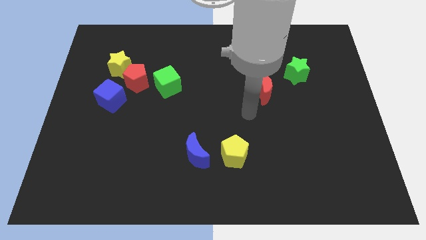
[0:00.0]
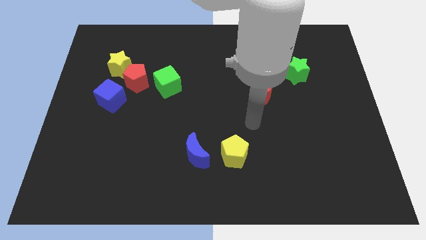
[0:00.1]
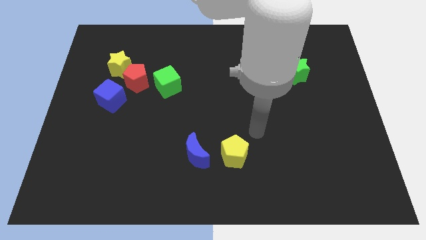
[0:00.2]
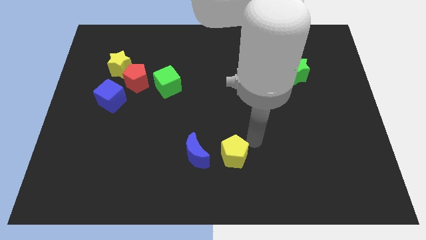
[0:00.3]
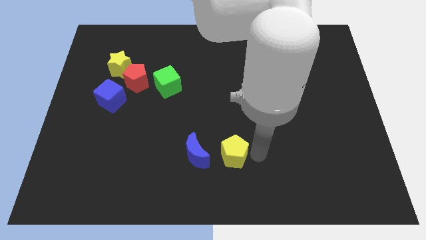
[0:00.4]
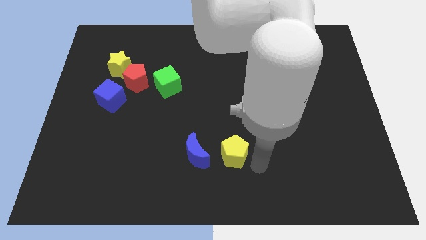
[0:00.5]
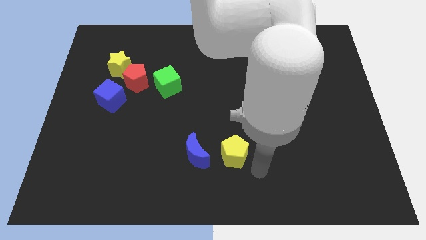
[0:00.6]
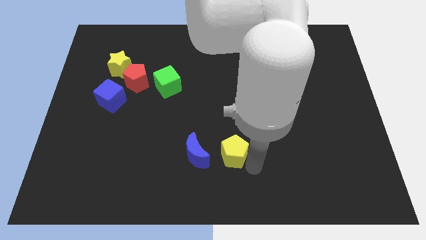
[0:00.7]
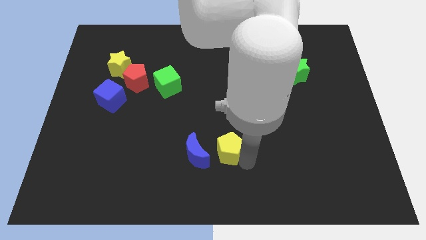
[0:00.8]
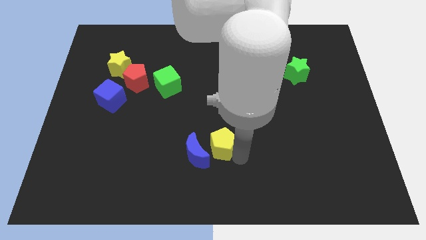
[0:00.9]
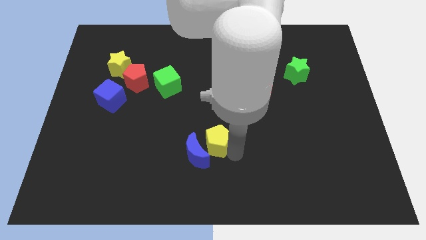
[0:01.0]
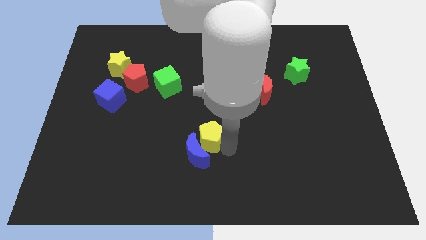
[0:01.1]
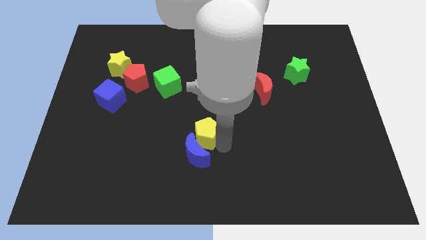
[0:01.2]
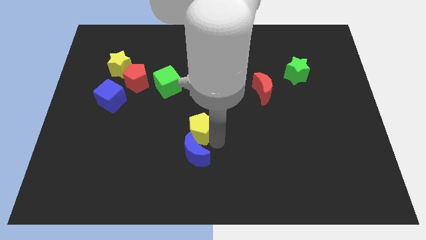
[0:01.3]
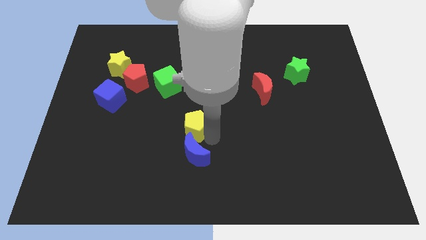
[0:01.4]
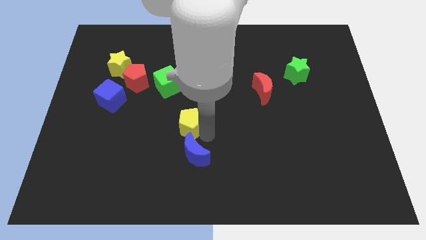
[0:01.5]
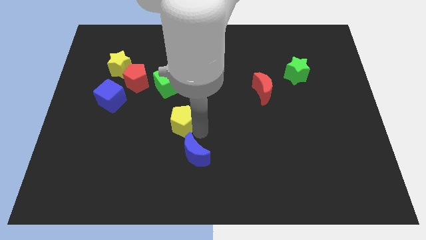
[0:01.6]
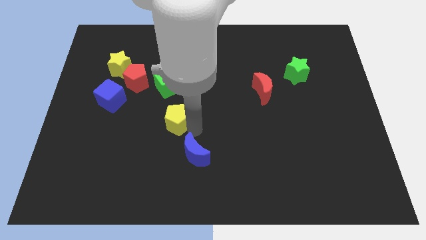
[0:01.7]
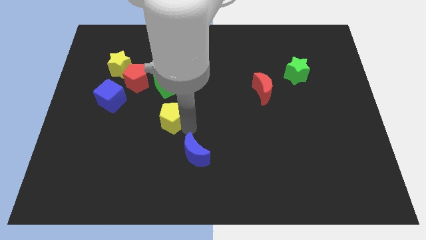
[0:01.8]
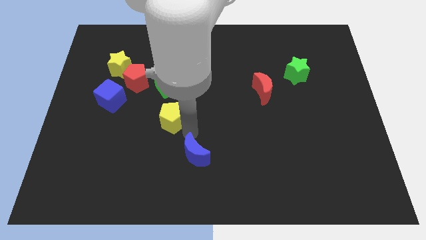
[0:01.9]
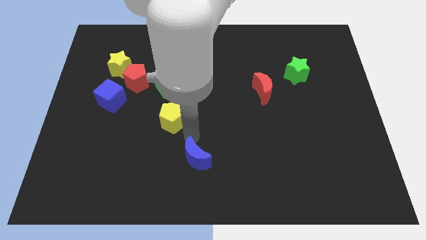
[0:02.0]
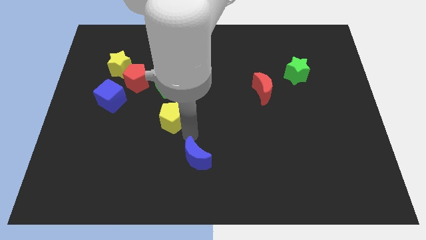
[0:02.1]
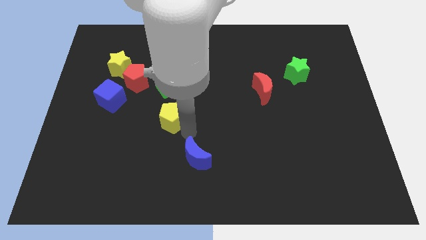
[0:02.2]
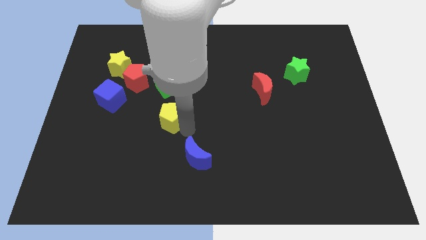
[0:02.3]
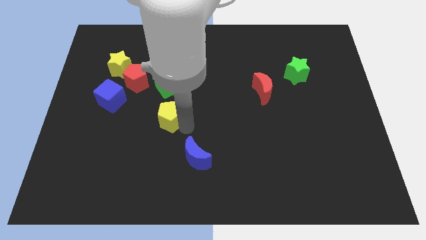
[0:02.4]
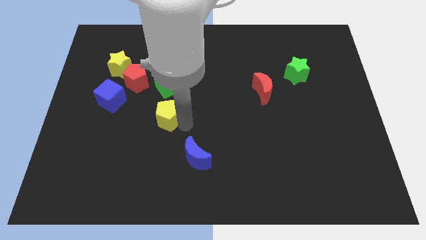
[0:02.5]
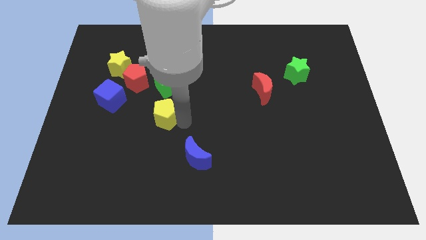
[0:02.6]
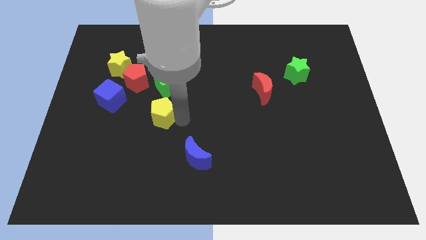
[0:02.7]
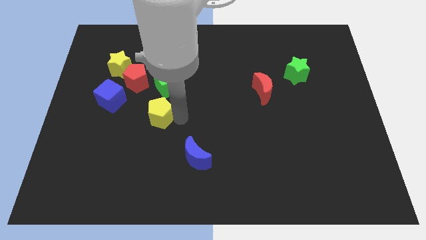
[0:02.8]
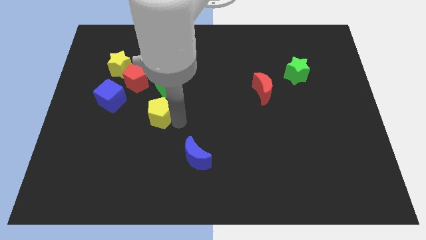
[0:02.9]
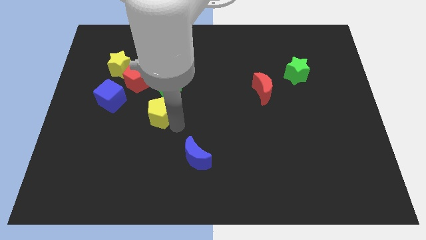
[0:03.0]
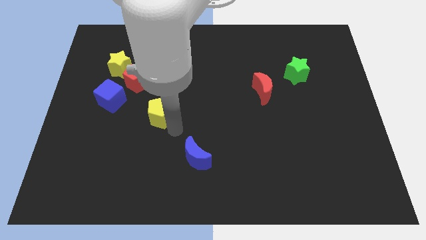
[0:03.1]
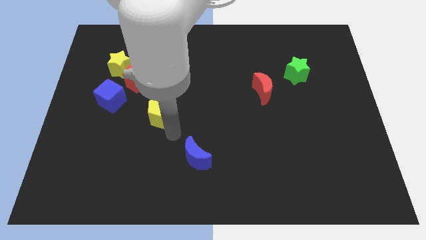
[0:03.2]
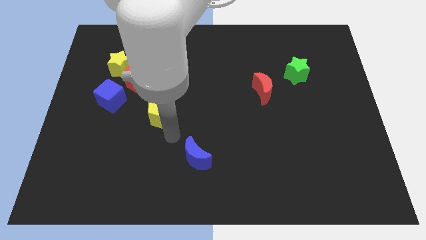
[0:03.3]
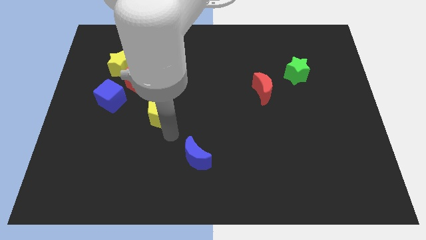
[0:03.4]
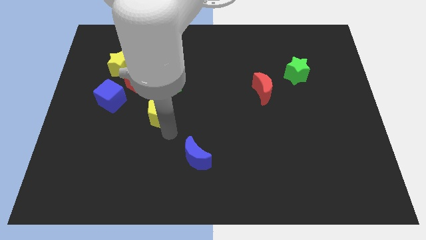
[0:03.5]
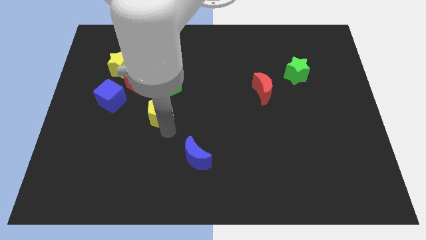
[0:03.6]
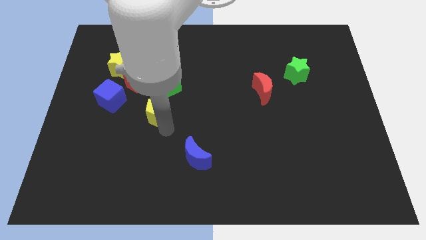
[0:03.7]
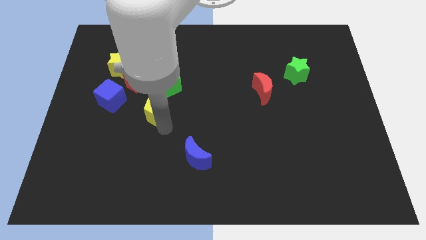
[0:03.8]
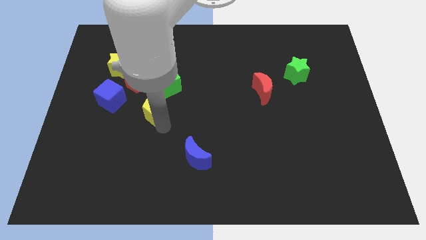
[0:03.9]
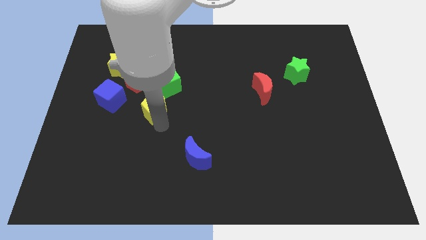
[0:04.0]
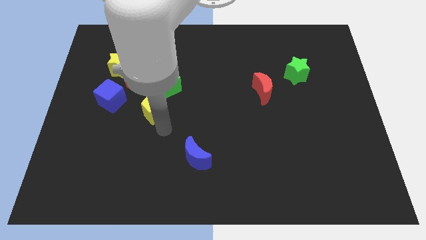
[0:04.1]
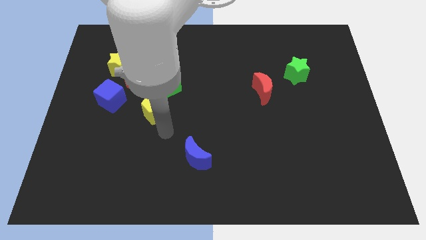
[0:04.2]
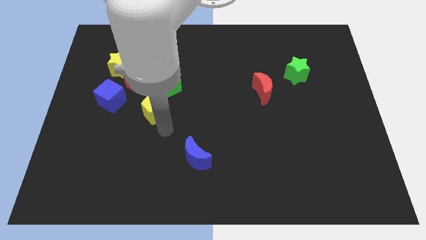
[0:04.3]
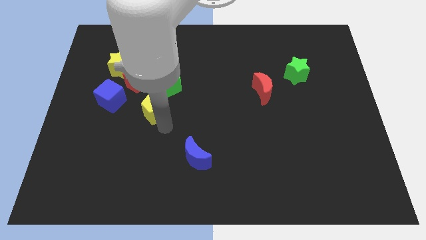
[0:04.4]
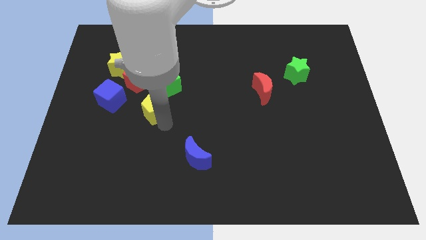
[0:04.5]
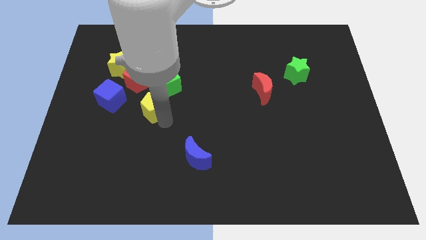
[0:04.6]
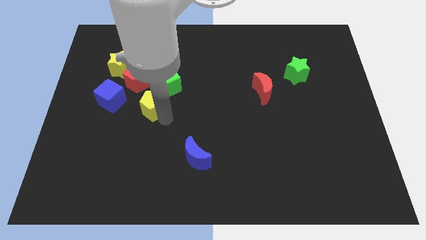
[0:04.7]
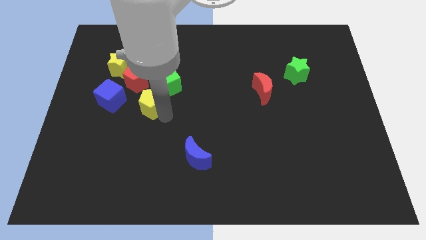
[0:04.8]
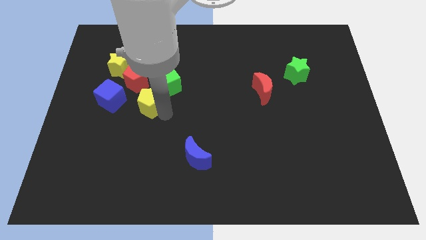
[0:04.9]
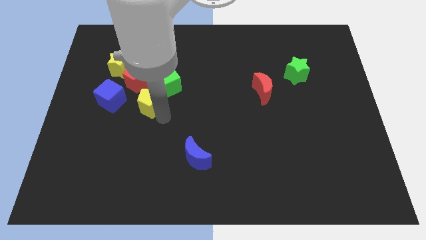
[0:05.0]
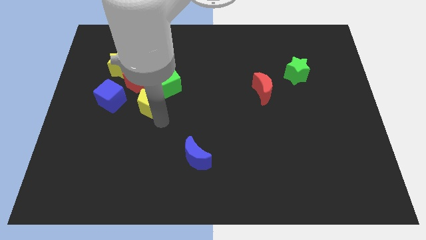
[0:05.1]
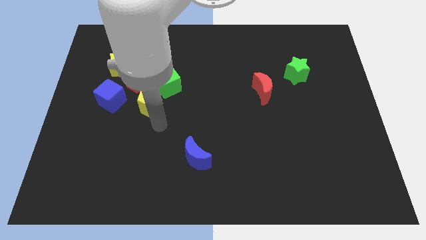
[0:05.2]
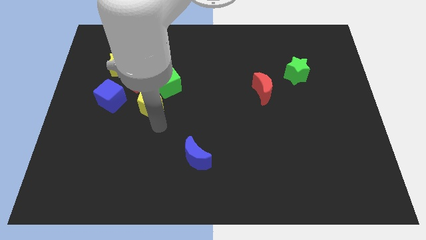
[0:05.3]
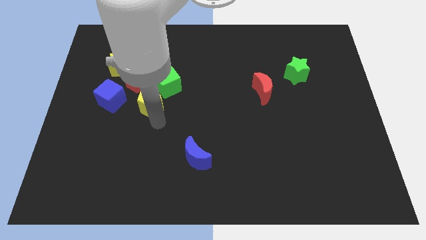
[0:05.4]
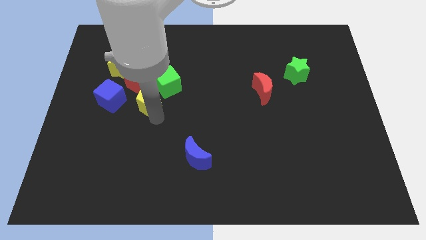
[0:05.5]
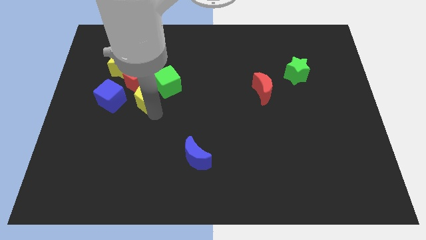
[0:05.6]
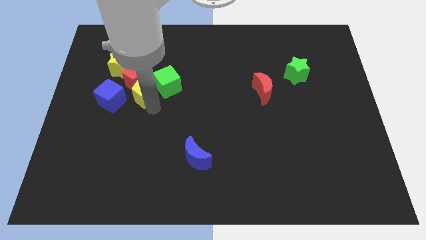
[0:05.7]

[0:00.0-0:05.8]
push the yellow pentagon diagonally down and to the right of the yellow star

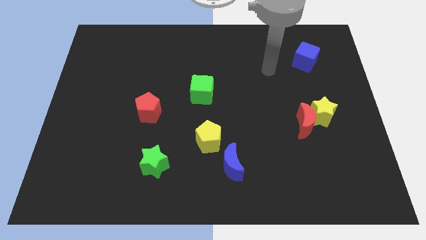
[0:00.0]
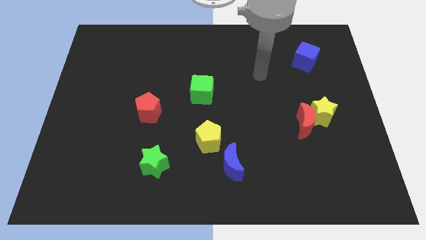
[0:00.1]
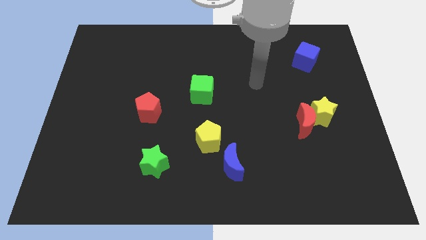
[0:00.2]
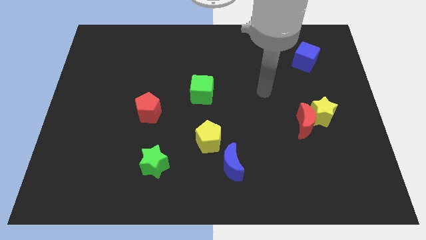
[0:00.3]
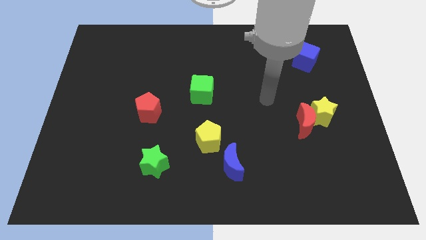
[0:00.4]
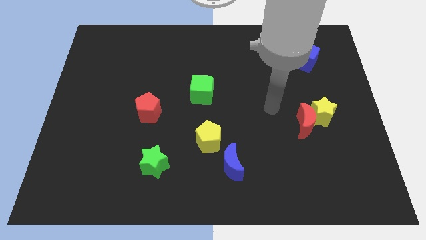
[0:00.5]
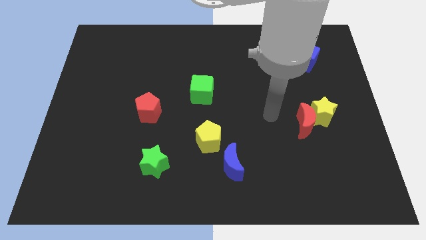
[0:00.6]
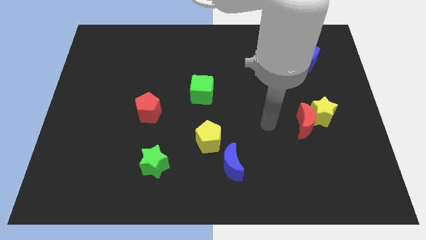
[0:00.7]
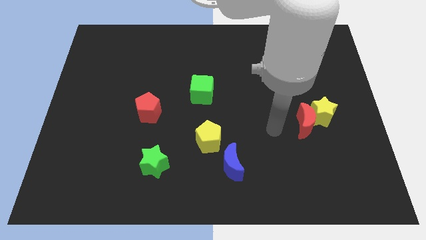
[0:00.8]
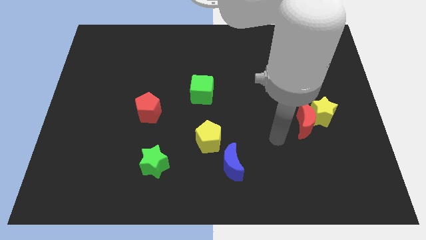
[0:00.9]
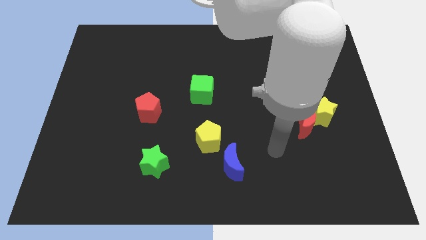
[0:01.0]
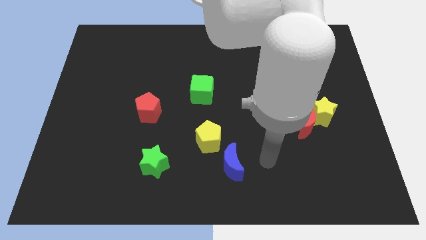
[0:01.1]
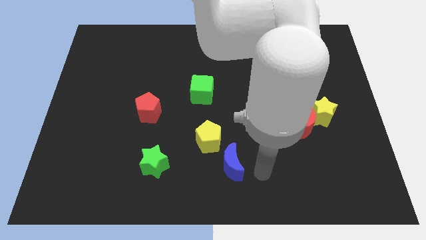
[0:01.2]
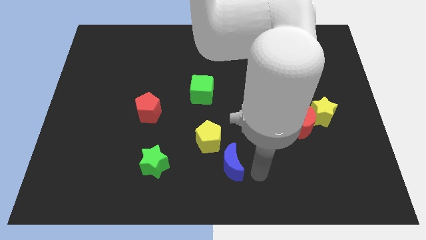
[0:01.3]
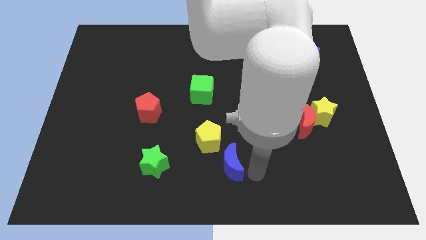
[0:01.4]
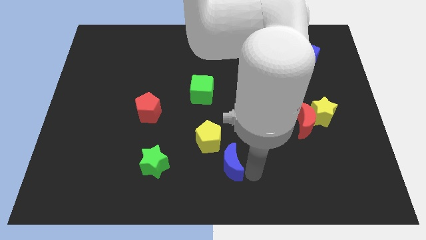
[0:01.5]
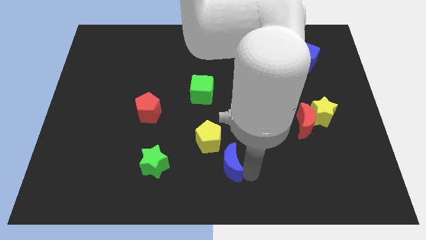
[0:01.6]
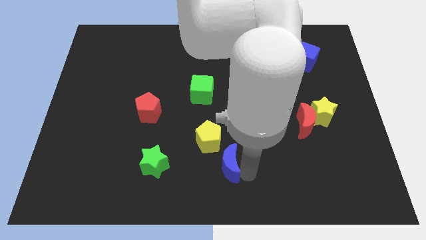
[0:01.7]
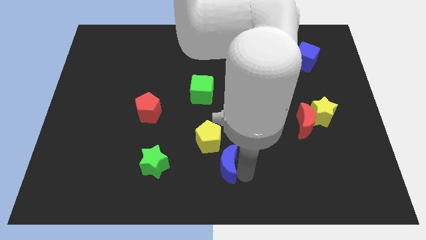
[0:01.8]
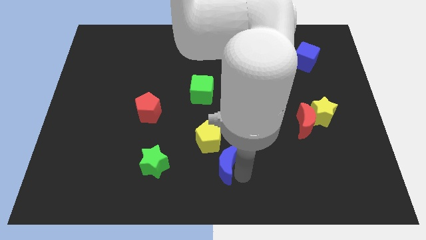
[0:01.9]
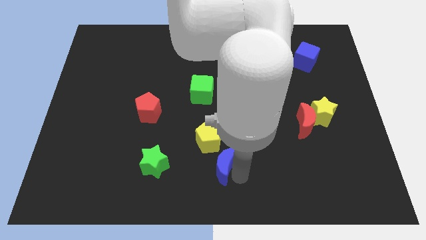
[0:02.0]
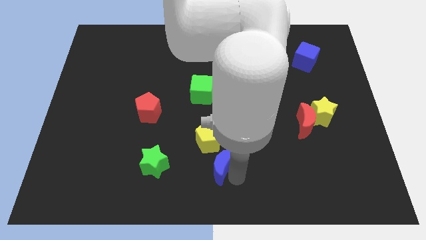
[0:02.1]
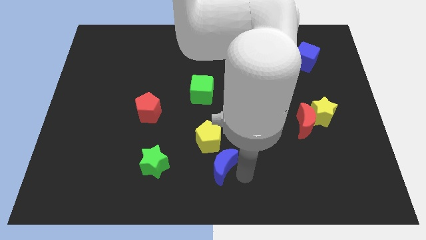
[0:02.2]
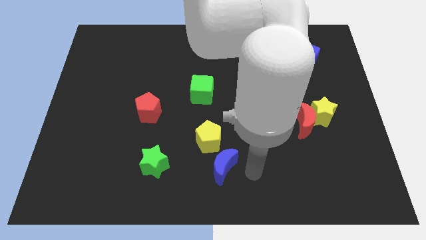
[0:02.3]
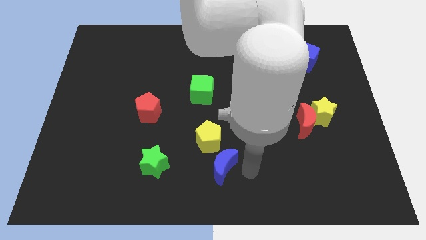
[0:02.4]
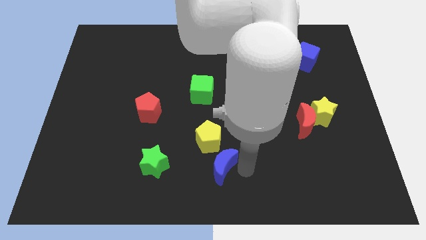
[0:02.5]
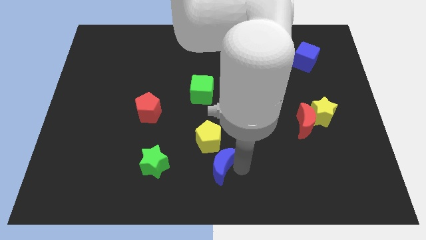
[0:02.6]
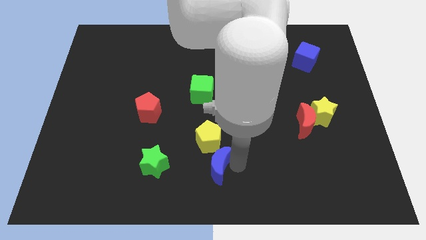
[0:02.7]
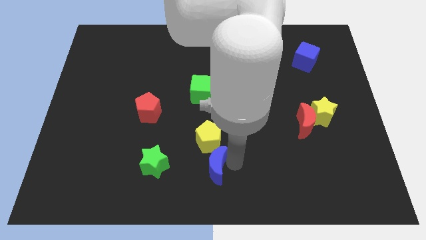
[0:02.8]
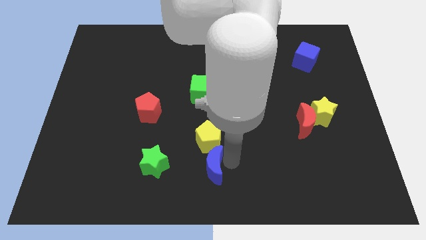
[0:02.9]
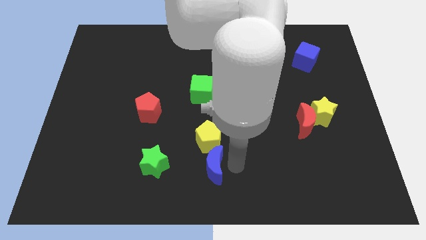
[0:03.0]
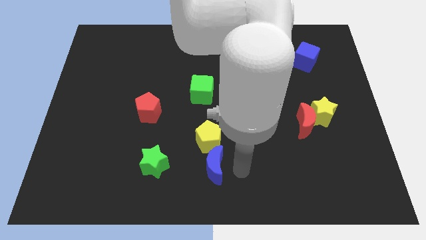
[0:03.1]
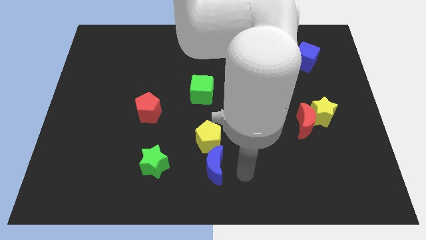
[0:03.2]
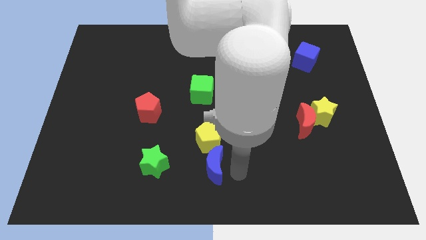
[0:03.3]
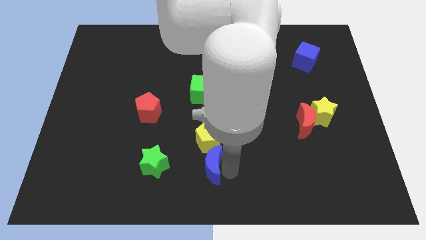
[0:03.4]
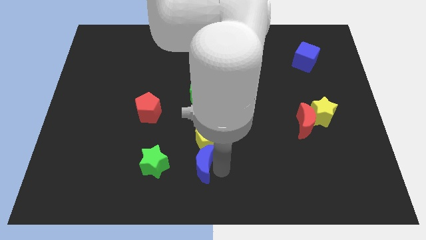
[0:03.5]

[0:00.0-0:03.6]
push the blue moon to the bottom left of the yellow pentagon
